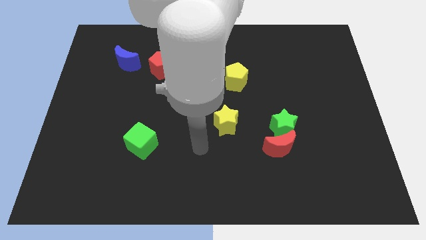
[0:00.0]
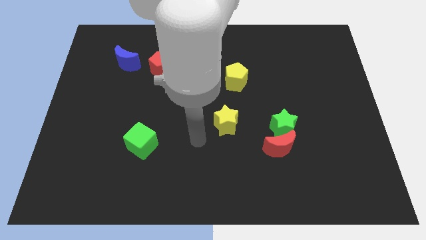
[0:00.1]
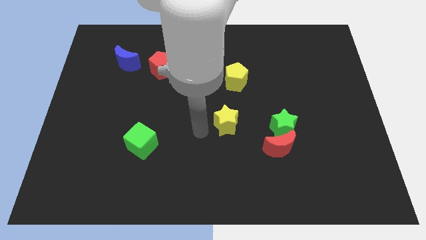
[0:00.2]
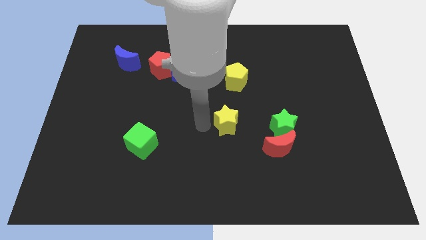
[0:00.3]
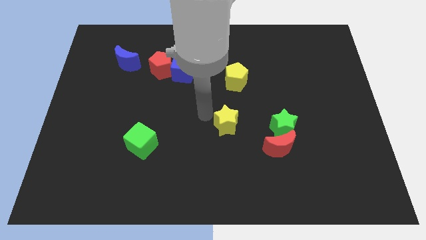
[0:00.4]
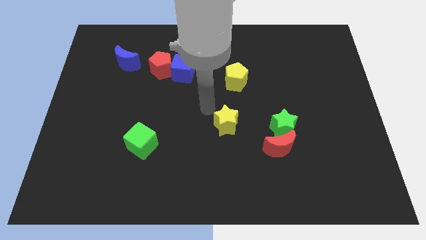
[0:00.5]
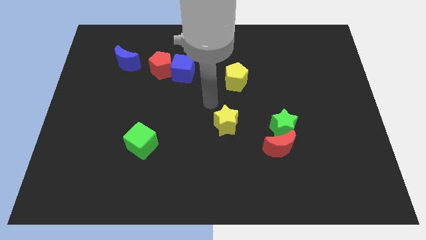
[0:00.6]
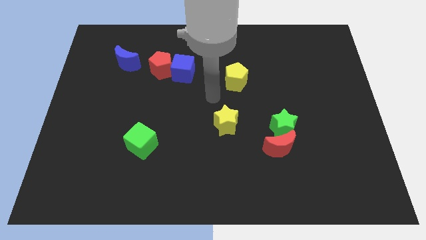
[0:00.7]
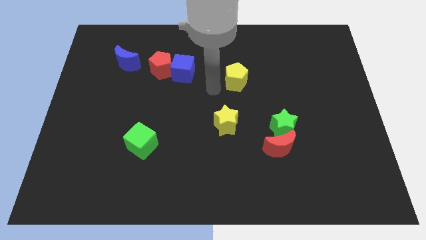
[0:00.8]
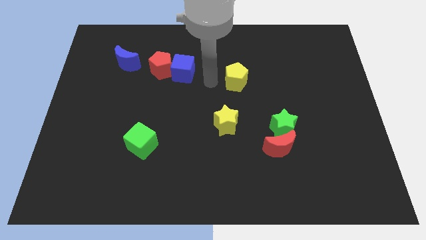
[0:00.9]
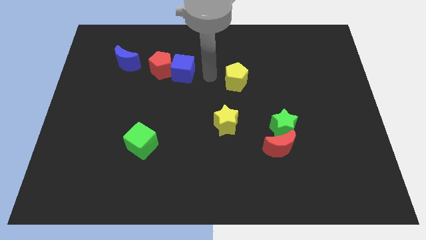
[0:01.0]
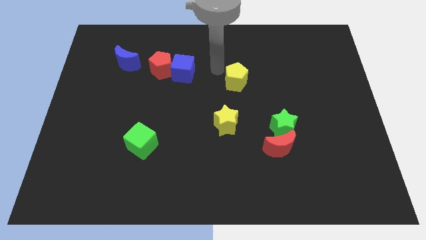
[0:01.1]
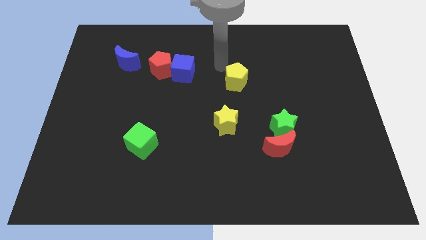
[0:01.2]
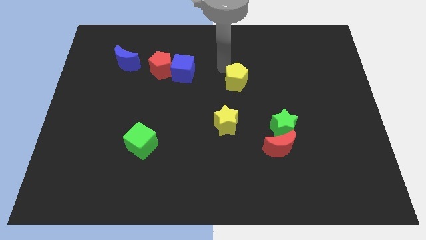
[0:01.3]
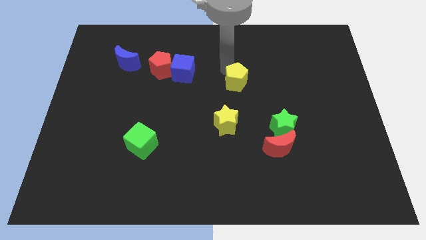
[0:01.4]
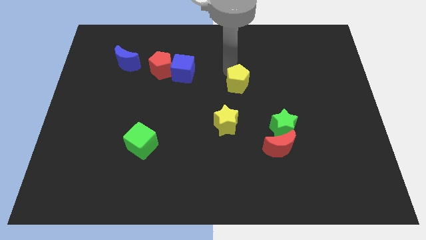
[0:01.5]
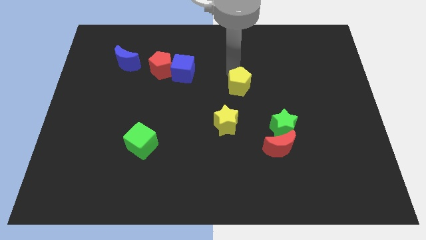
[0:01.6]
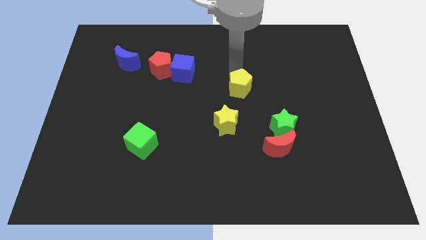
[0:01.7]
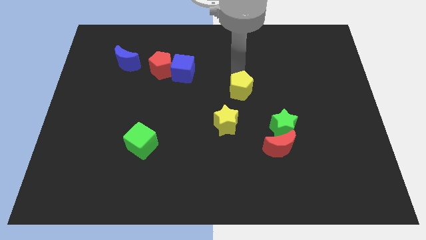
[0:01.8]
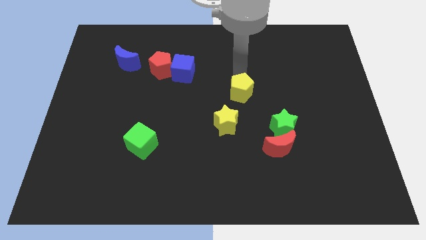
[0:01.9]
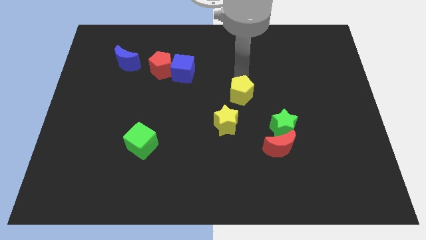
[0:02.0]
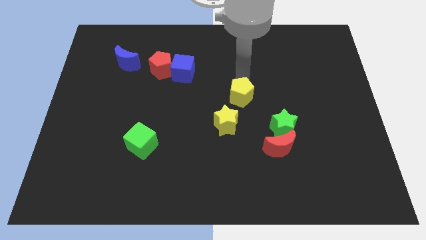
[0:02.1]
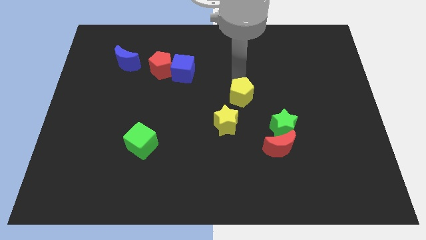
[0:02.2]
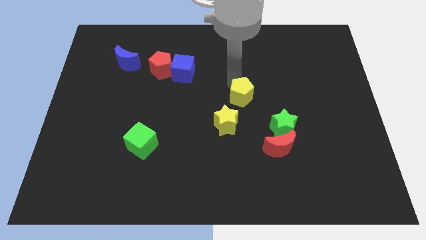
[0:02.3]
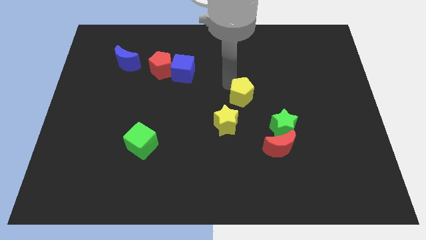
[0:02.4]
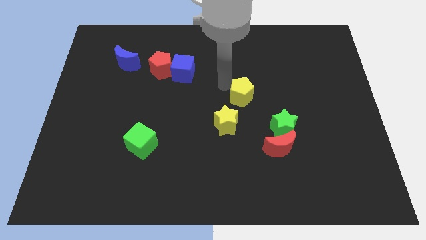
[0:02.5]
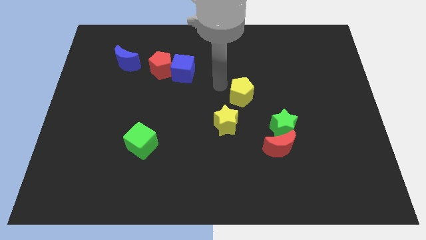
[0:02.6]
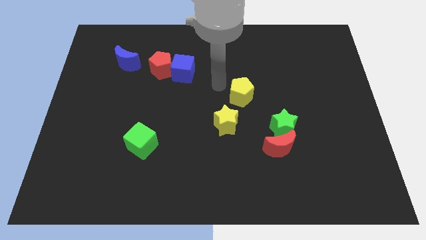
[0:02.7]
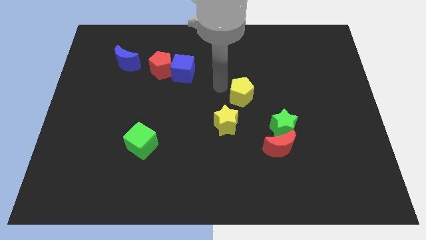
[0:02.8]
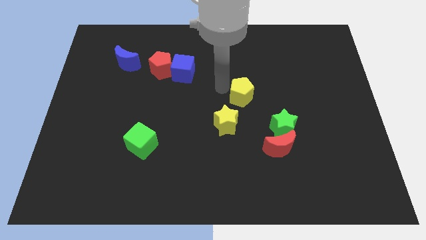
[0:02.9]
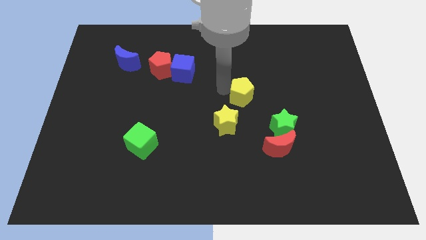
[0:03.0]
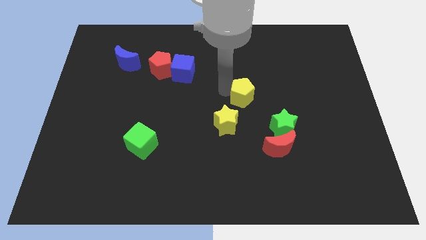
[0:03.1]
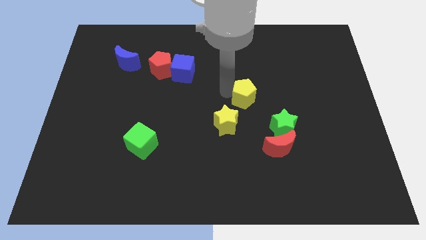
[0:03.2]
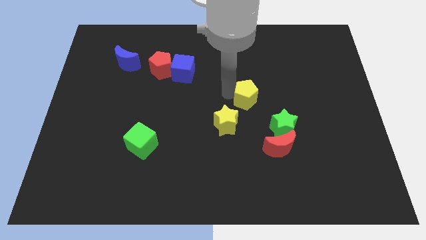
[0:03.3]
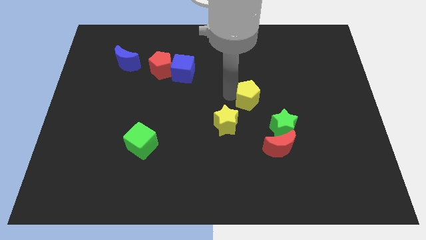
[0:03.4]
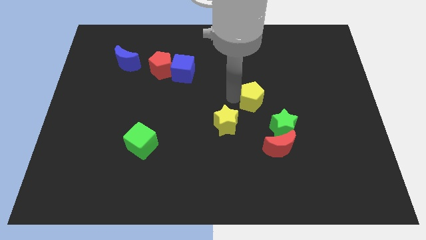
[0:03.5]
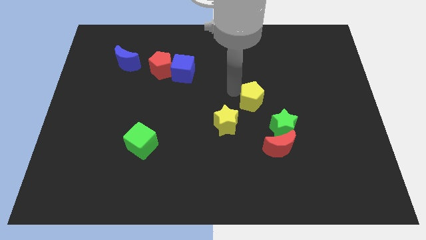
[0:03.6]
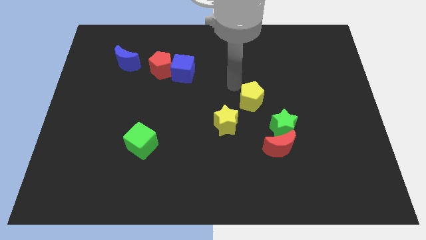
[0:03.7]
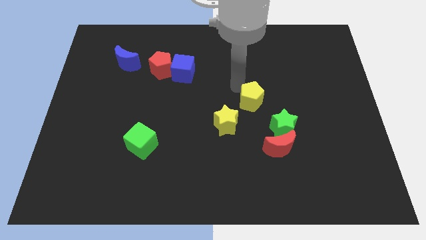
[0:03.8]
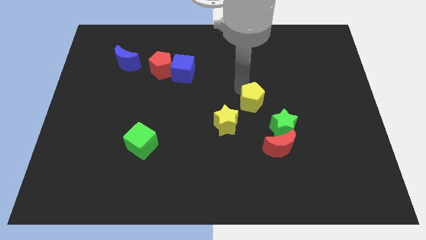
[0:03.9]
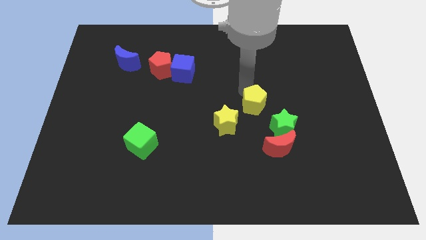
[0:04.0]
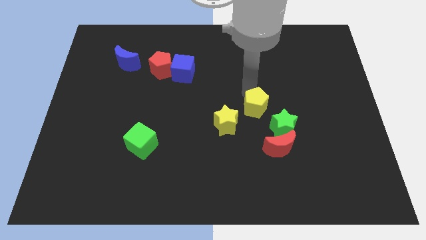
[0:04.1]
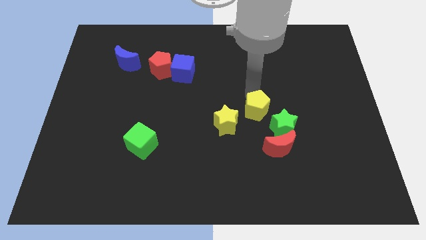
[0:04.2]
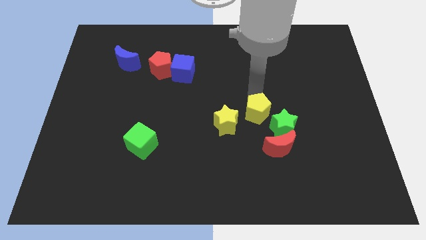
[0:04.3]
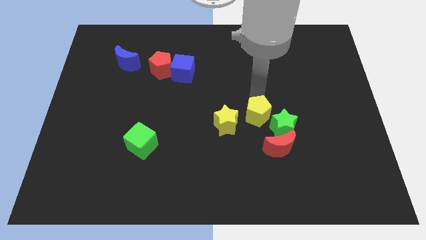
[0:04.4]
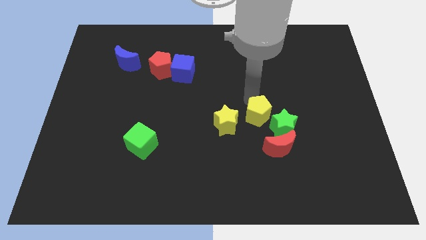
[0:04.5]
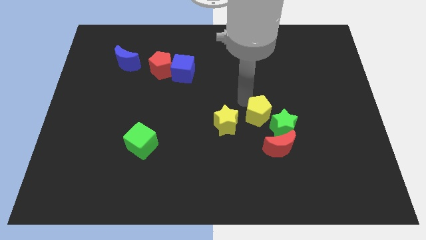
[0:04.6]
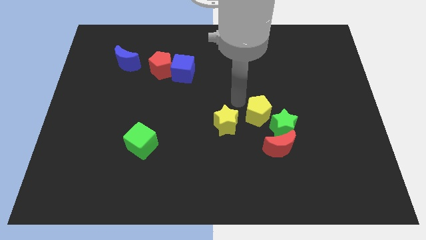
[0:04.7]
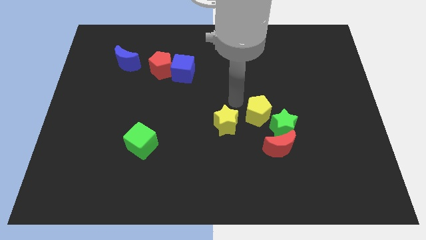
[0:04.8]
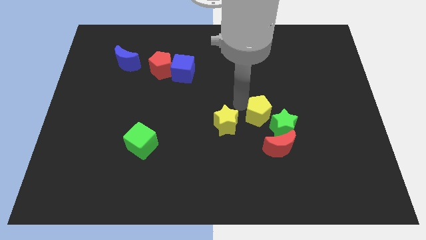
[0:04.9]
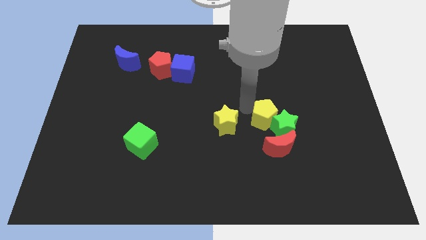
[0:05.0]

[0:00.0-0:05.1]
put the yellow pentagon close to the green star

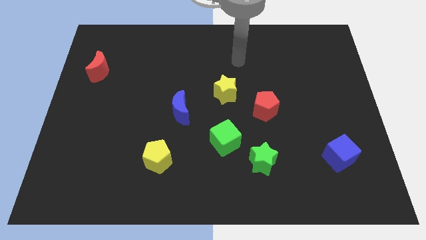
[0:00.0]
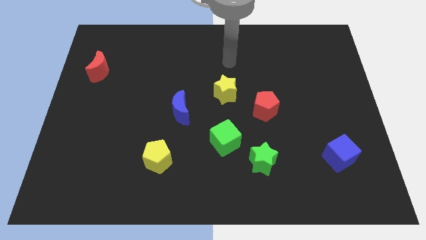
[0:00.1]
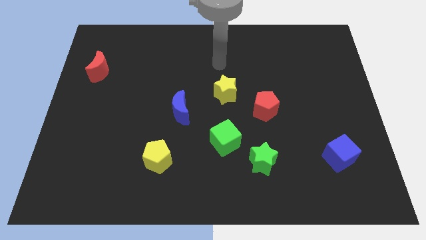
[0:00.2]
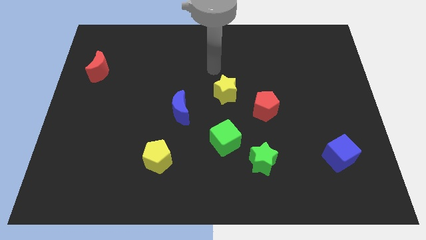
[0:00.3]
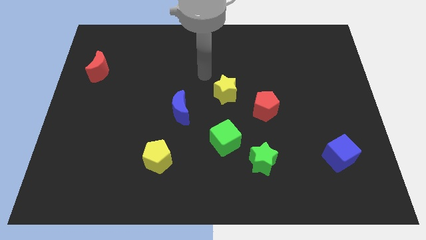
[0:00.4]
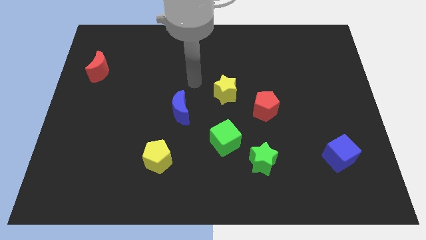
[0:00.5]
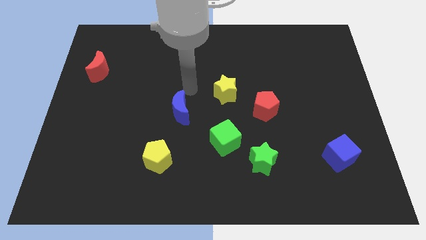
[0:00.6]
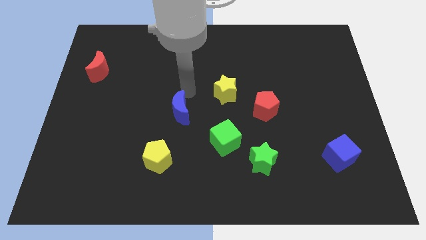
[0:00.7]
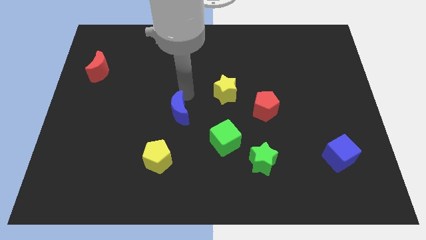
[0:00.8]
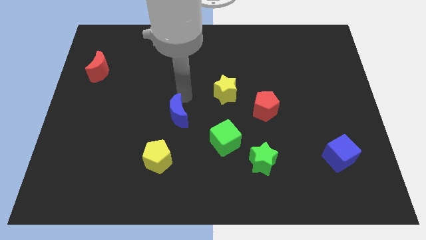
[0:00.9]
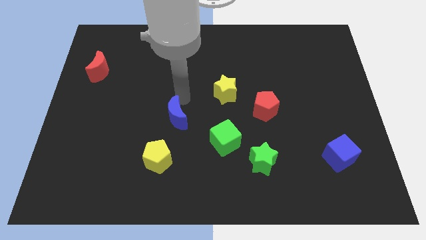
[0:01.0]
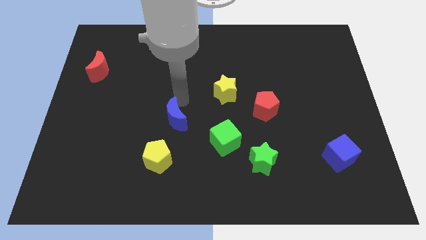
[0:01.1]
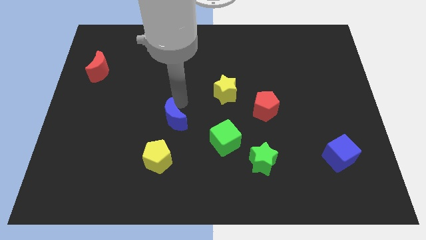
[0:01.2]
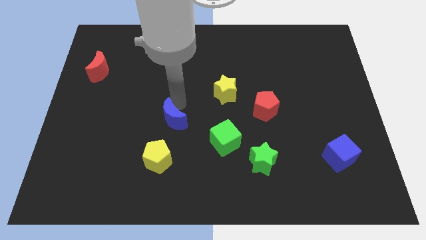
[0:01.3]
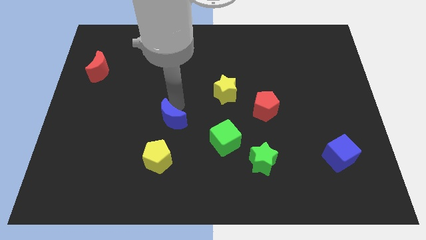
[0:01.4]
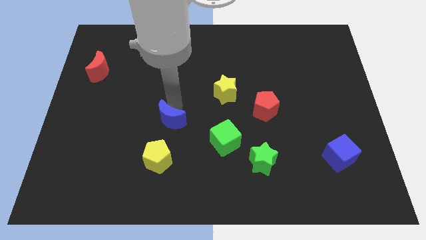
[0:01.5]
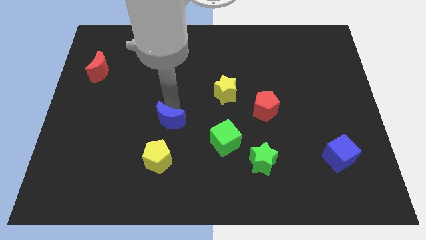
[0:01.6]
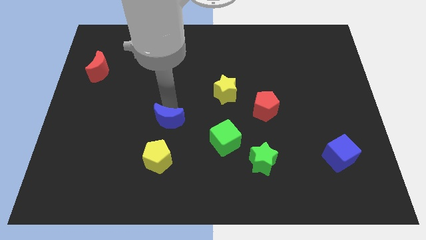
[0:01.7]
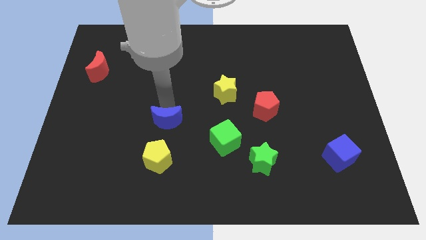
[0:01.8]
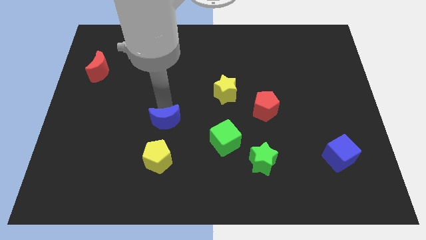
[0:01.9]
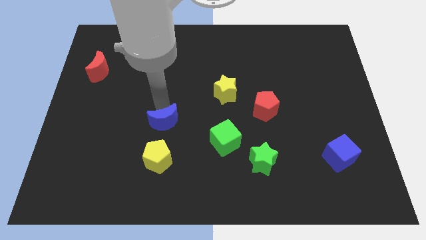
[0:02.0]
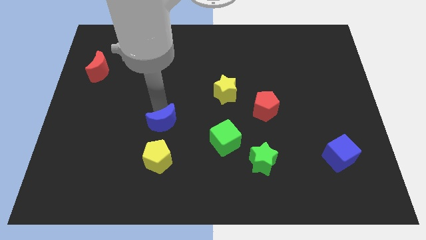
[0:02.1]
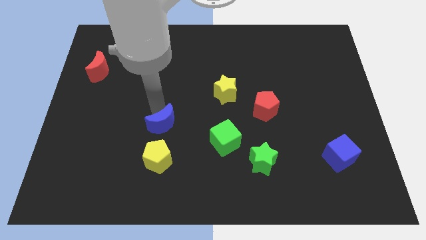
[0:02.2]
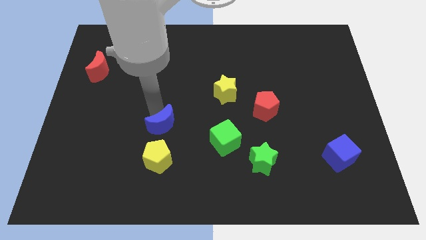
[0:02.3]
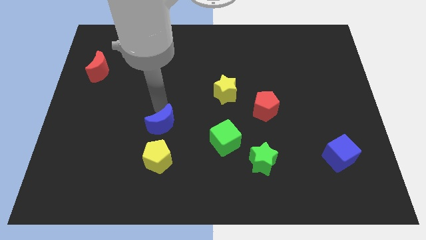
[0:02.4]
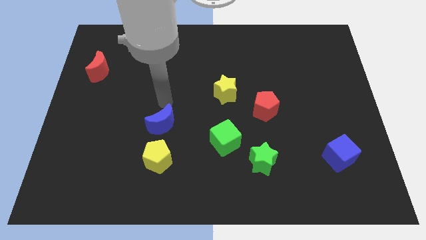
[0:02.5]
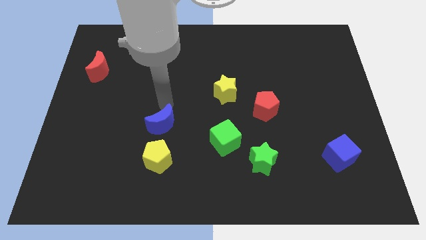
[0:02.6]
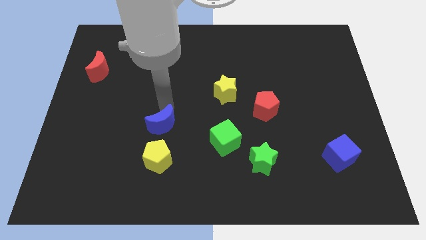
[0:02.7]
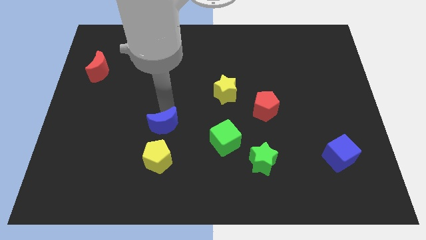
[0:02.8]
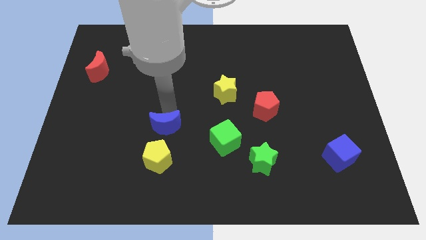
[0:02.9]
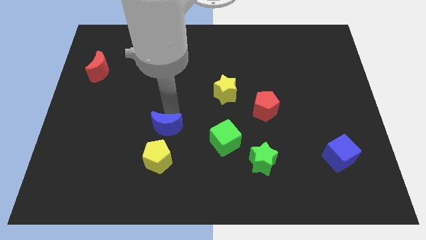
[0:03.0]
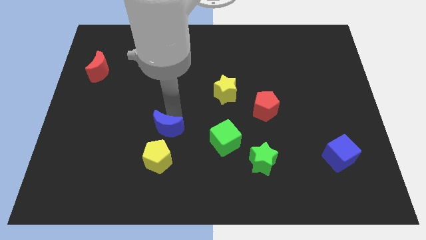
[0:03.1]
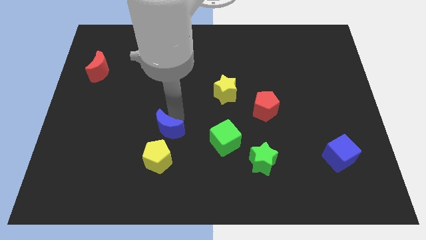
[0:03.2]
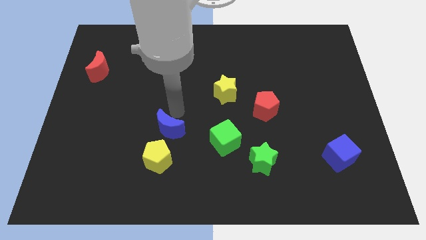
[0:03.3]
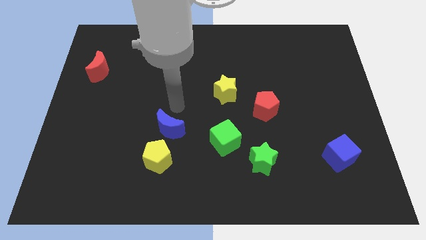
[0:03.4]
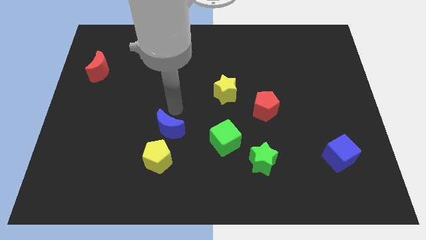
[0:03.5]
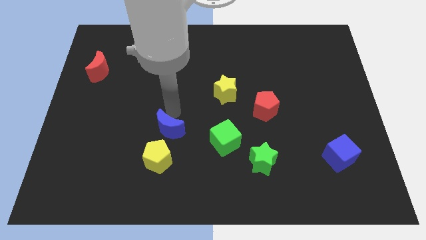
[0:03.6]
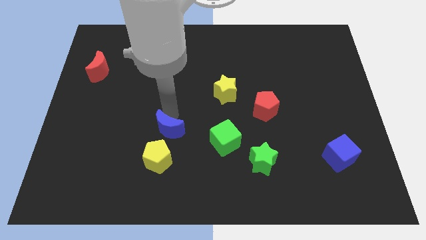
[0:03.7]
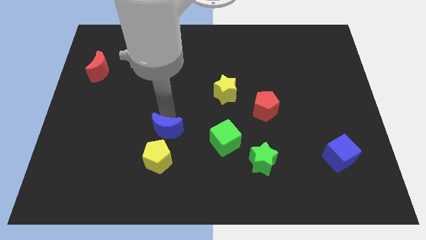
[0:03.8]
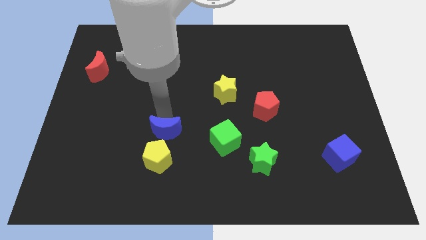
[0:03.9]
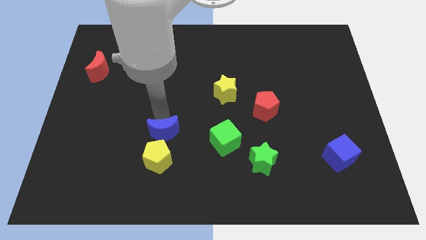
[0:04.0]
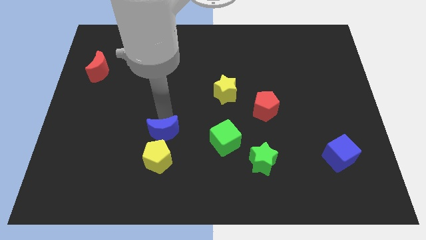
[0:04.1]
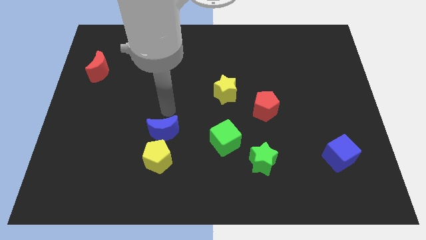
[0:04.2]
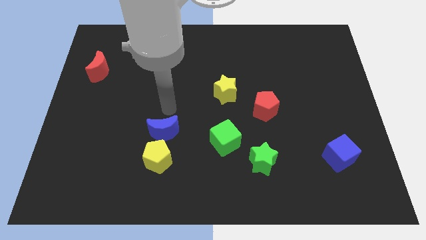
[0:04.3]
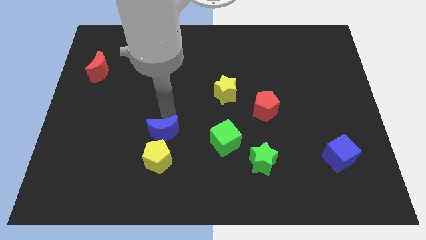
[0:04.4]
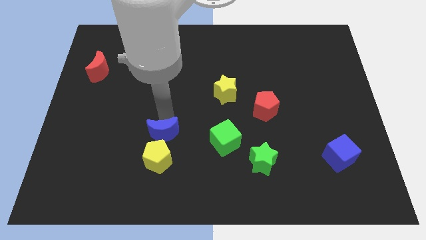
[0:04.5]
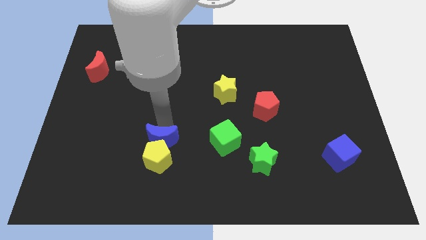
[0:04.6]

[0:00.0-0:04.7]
move the blue moon towards the yellow pentagon
